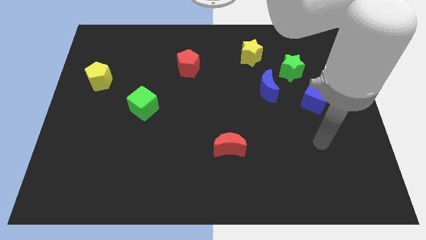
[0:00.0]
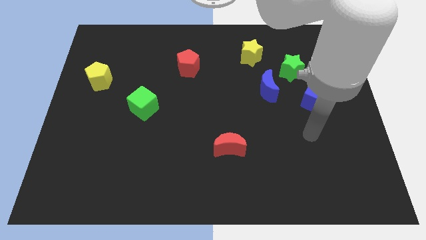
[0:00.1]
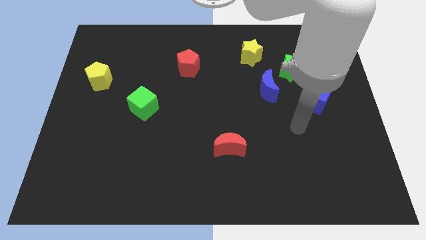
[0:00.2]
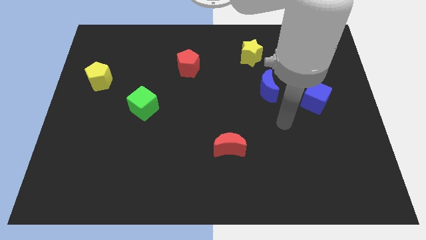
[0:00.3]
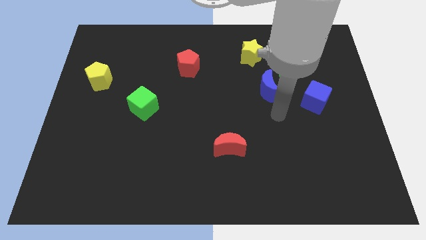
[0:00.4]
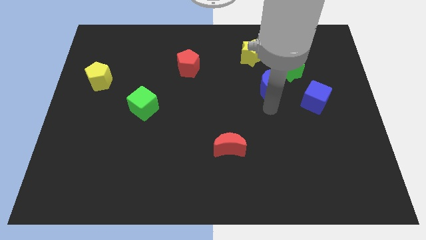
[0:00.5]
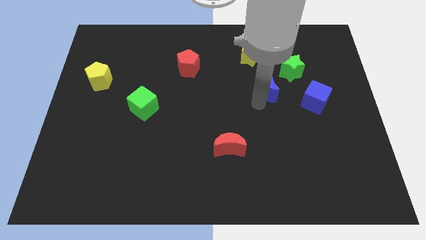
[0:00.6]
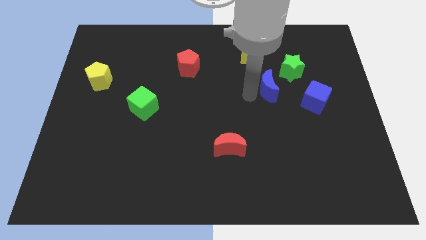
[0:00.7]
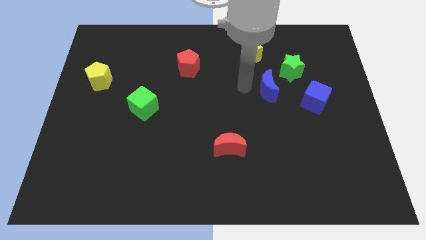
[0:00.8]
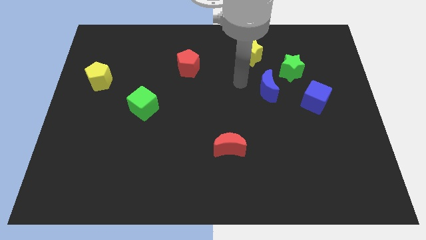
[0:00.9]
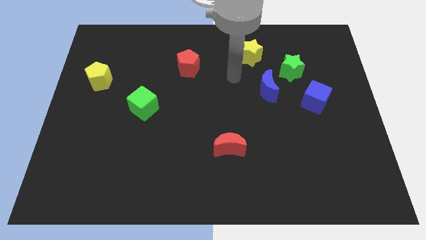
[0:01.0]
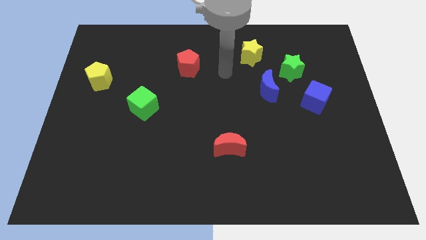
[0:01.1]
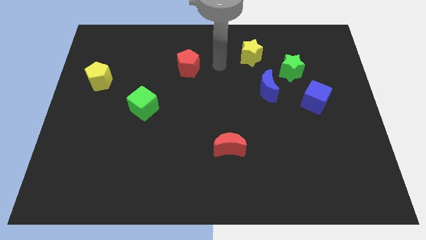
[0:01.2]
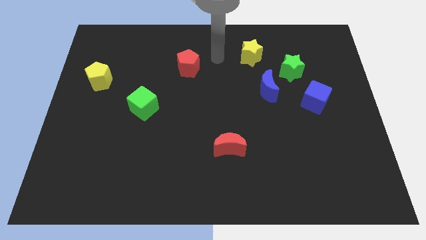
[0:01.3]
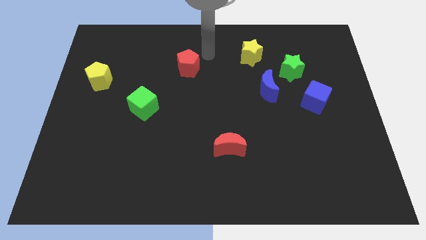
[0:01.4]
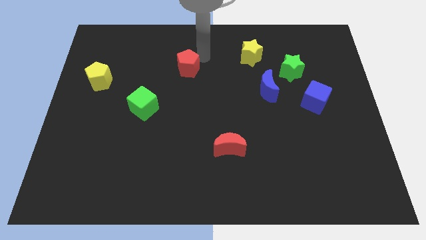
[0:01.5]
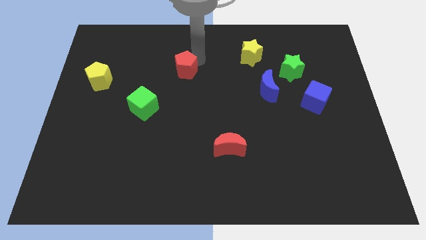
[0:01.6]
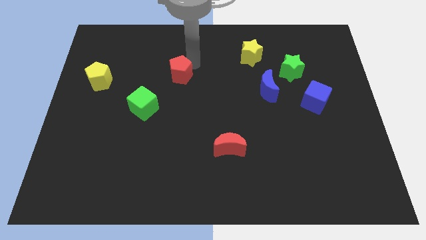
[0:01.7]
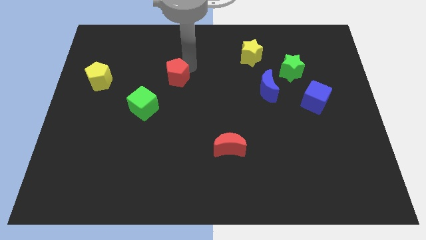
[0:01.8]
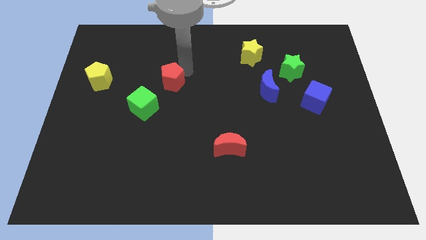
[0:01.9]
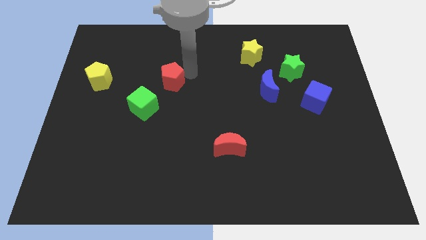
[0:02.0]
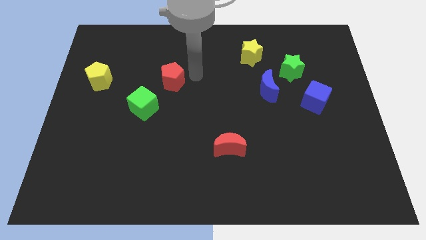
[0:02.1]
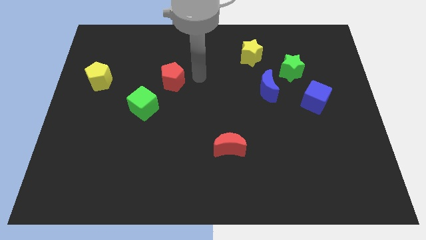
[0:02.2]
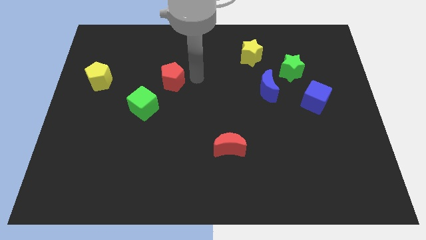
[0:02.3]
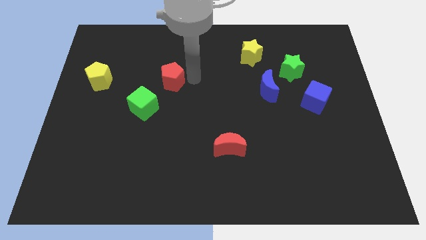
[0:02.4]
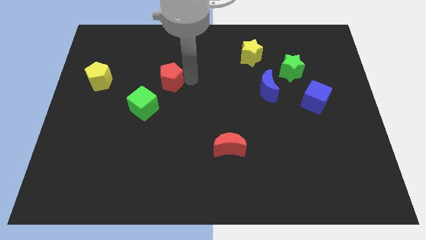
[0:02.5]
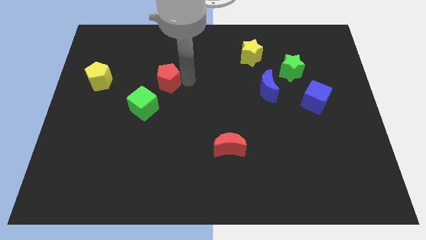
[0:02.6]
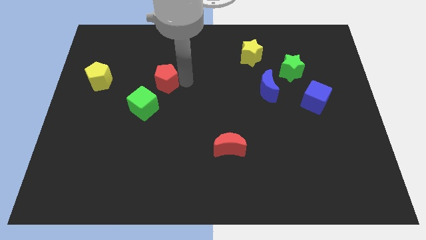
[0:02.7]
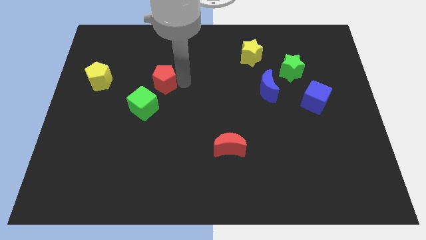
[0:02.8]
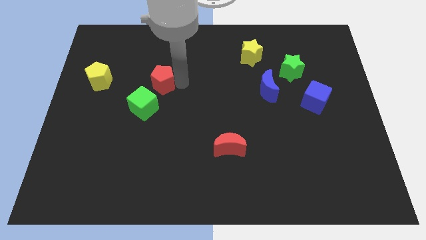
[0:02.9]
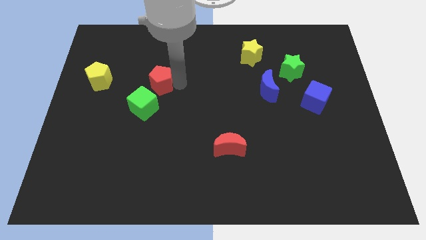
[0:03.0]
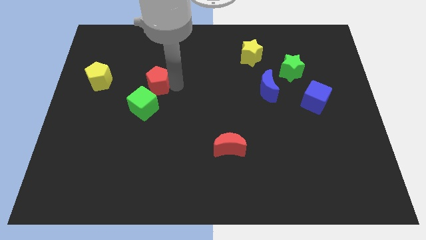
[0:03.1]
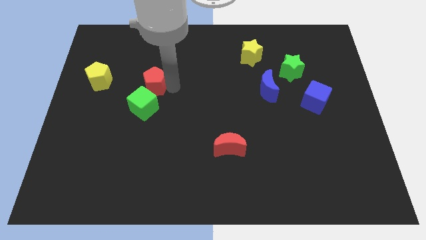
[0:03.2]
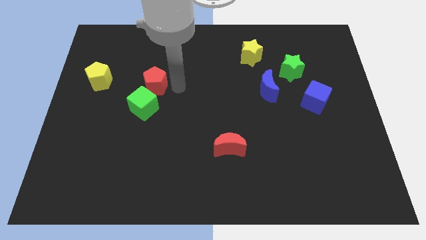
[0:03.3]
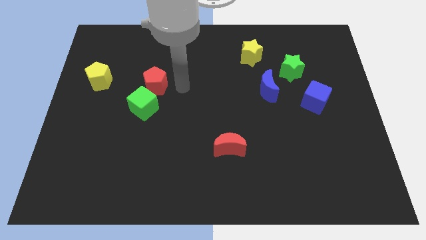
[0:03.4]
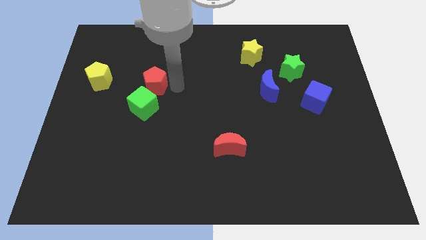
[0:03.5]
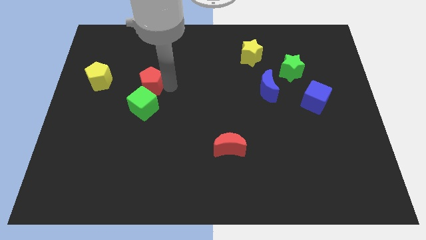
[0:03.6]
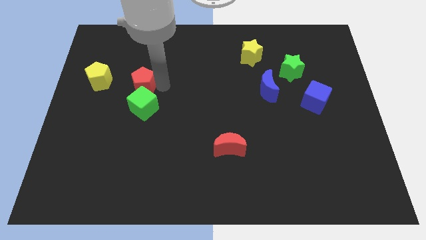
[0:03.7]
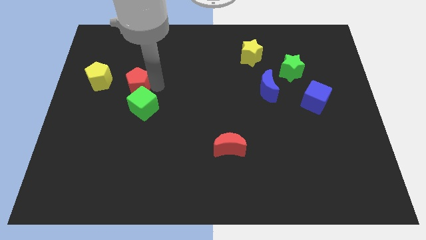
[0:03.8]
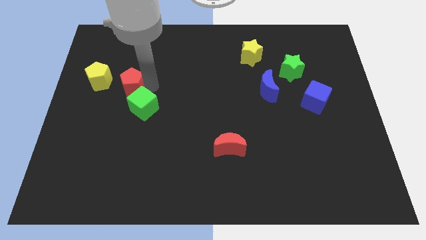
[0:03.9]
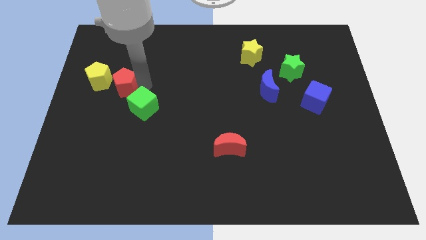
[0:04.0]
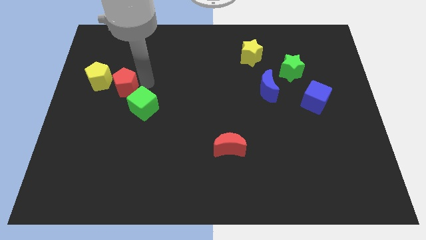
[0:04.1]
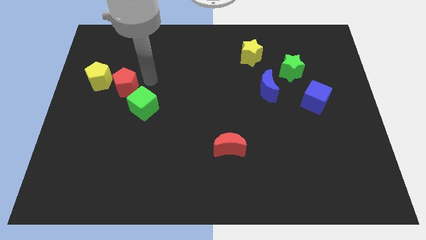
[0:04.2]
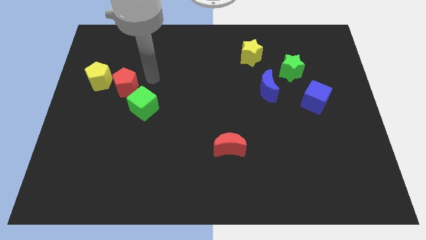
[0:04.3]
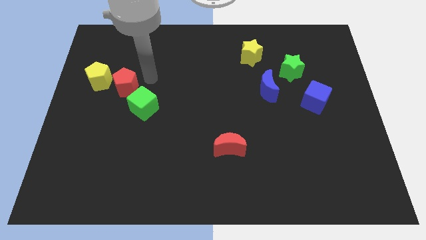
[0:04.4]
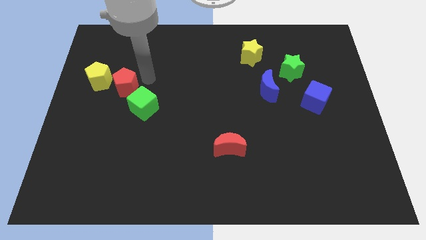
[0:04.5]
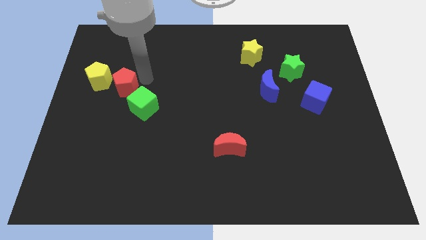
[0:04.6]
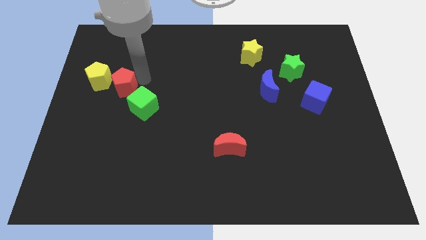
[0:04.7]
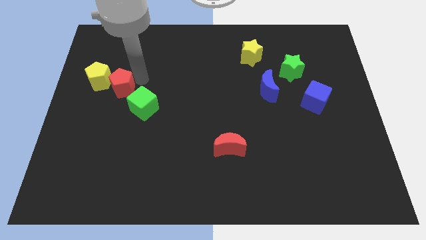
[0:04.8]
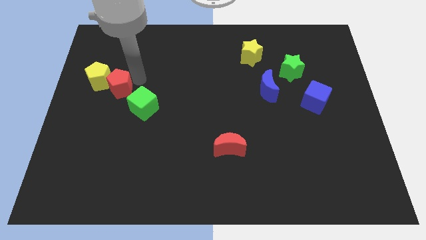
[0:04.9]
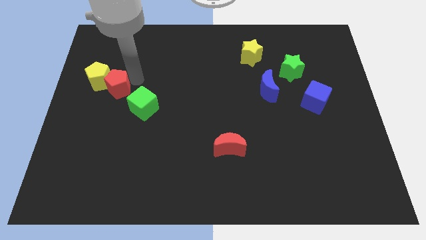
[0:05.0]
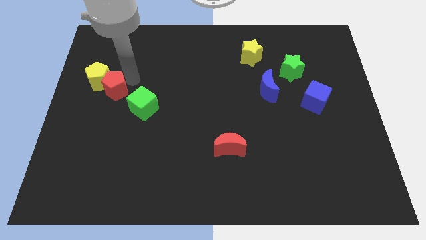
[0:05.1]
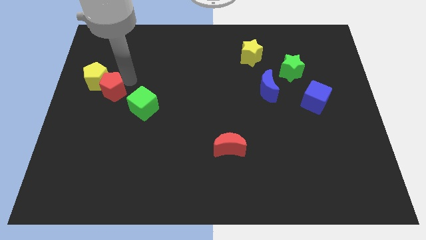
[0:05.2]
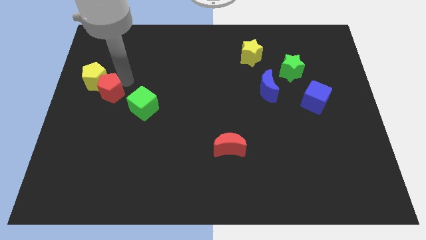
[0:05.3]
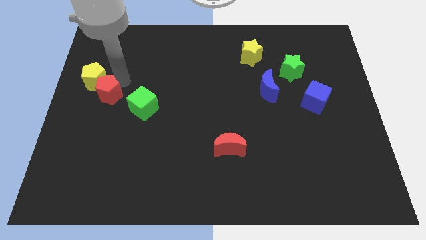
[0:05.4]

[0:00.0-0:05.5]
push the red pentagon to the left side of the board

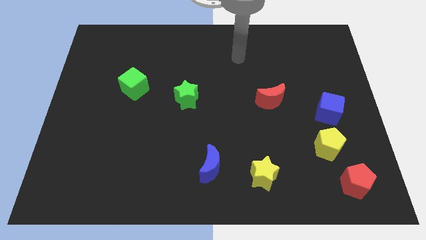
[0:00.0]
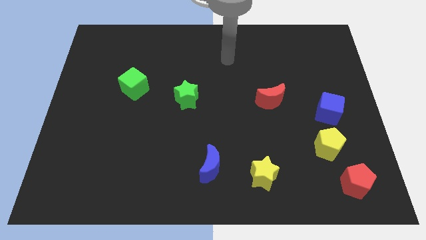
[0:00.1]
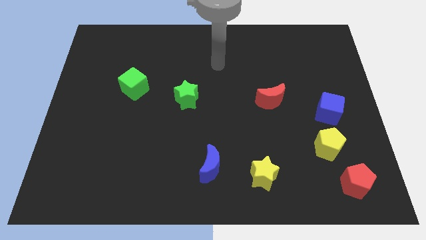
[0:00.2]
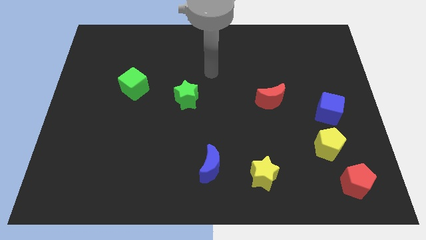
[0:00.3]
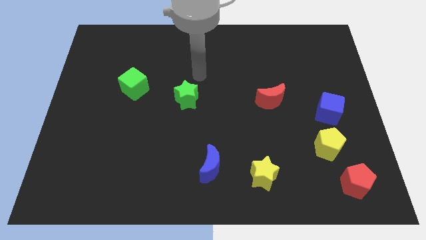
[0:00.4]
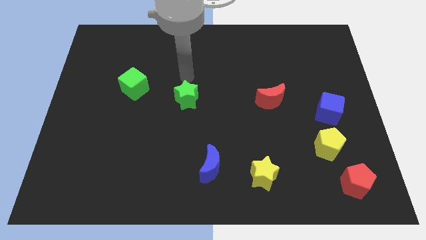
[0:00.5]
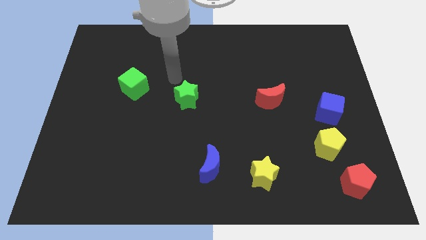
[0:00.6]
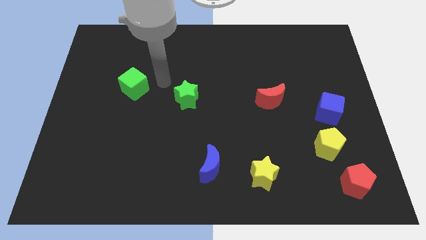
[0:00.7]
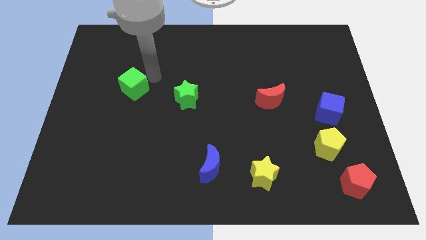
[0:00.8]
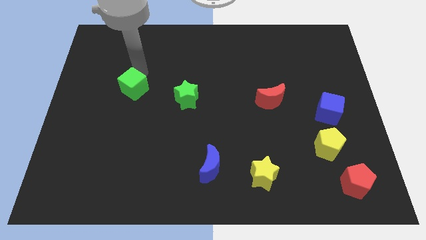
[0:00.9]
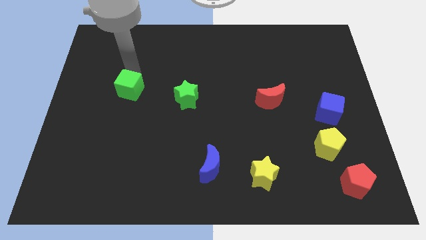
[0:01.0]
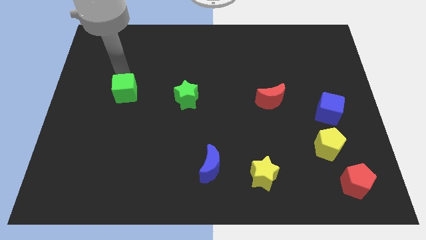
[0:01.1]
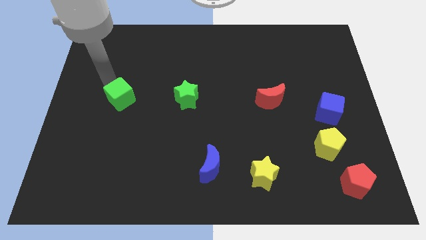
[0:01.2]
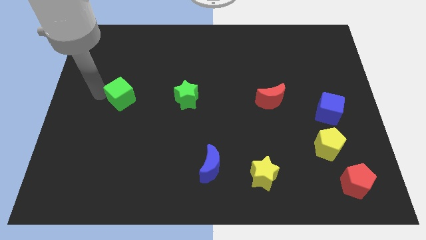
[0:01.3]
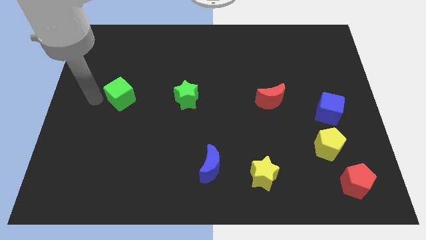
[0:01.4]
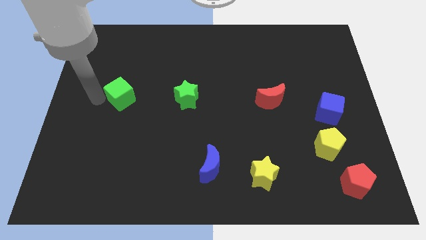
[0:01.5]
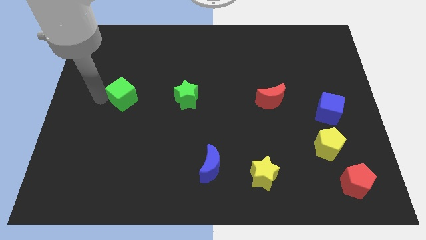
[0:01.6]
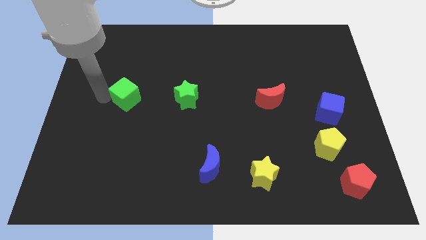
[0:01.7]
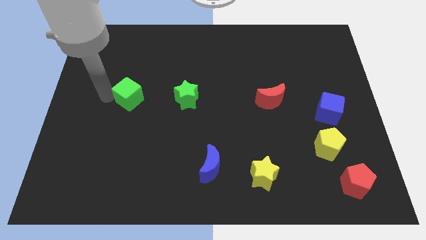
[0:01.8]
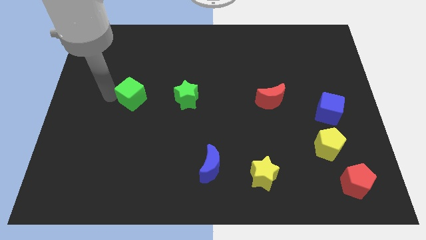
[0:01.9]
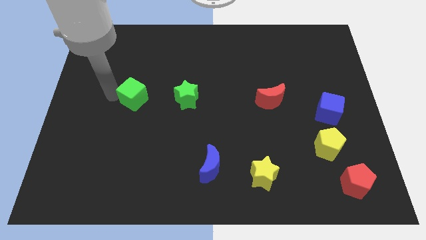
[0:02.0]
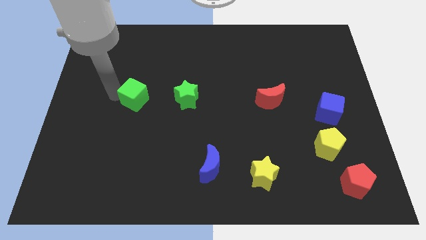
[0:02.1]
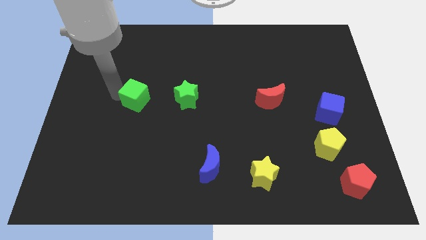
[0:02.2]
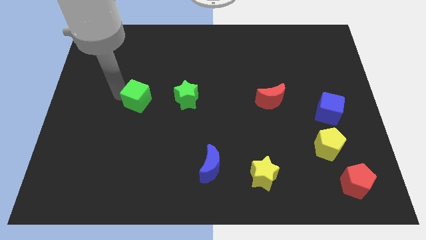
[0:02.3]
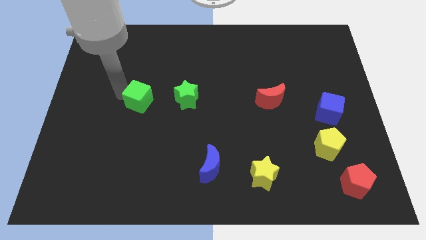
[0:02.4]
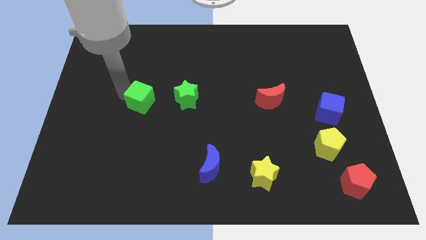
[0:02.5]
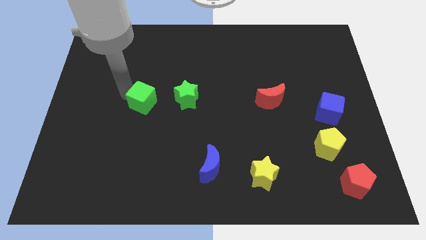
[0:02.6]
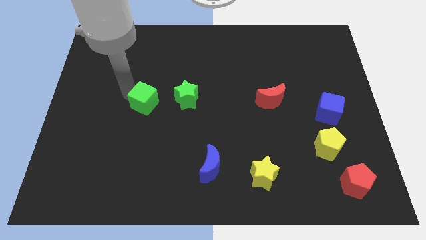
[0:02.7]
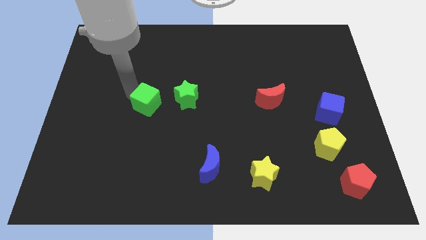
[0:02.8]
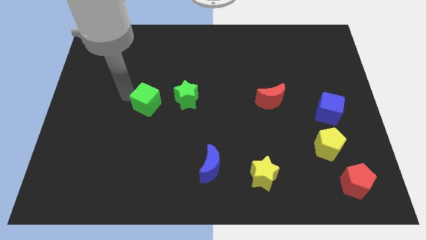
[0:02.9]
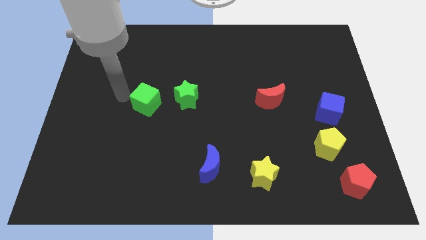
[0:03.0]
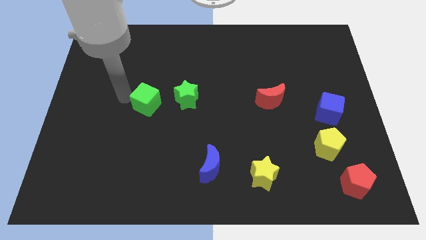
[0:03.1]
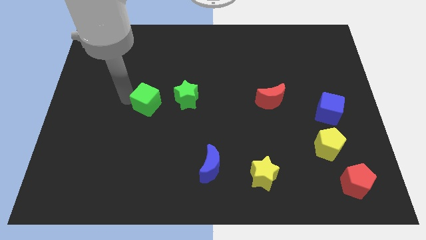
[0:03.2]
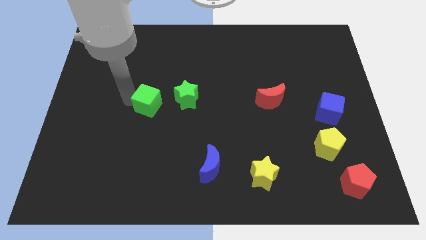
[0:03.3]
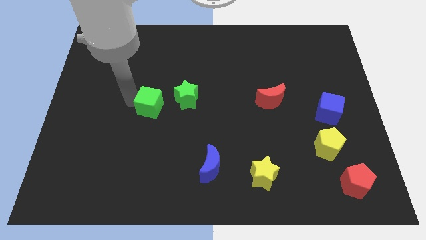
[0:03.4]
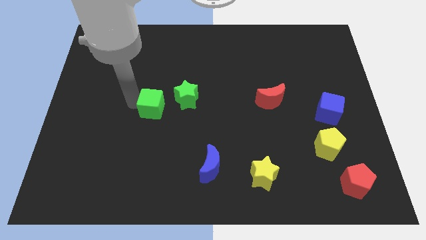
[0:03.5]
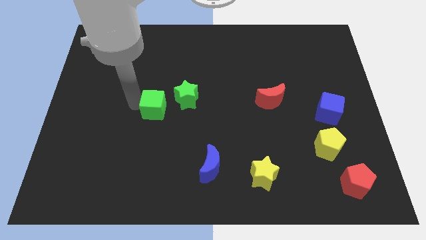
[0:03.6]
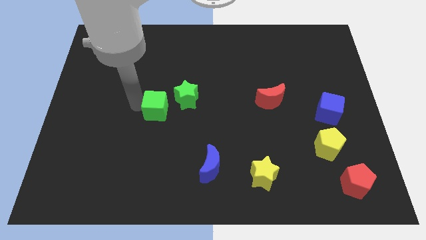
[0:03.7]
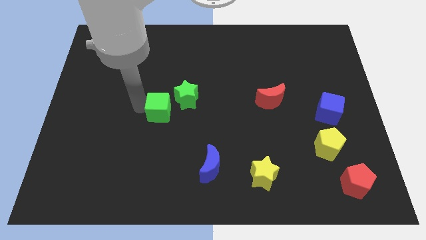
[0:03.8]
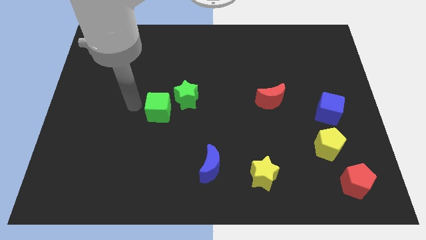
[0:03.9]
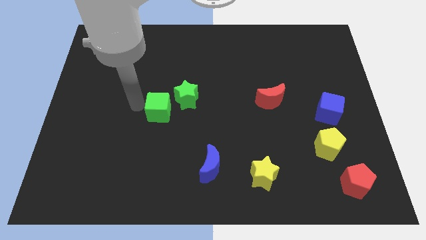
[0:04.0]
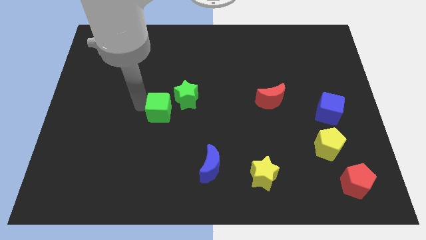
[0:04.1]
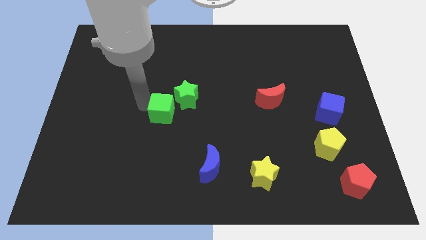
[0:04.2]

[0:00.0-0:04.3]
slide the green cube to the center
